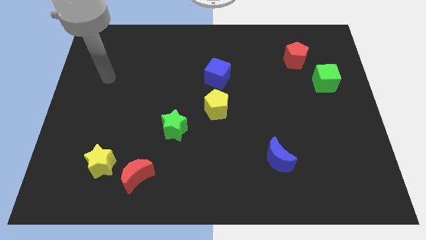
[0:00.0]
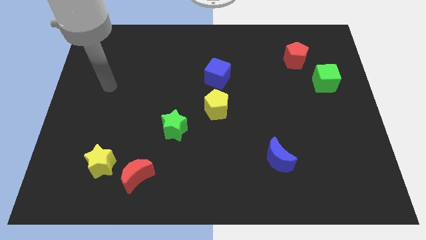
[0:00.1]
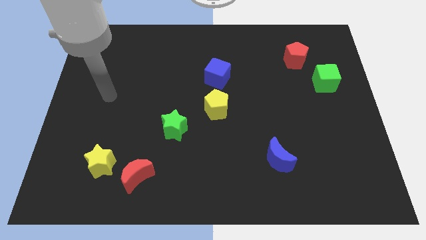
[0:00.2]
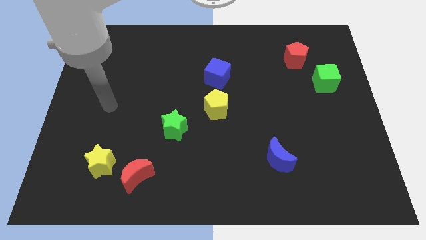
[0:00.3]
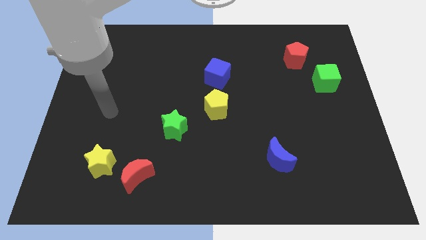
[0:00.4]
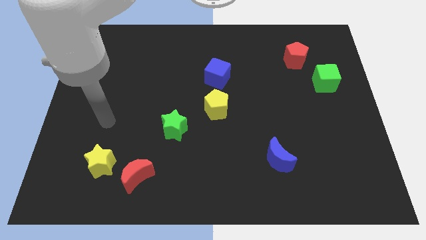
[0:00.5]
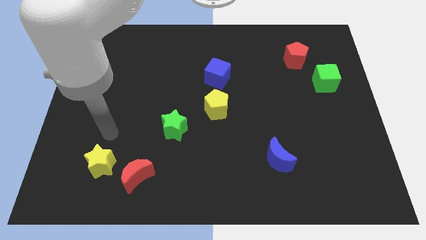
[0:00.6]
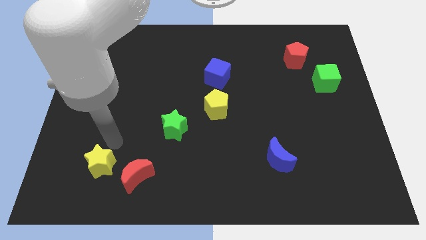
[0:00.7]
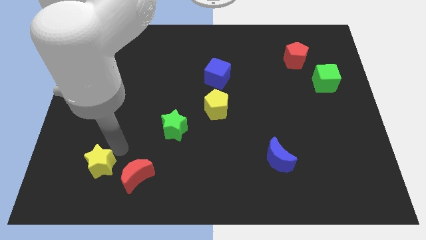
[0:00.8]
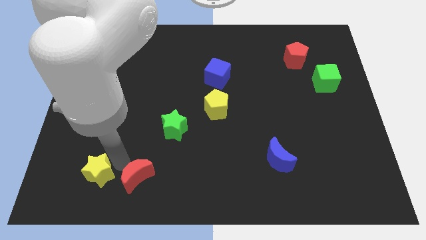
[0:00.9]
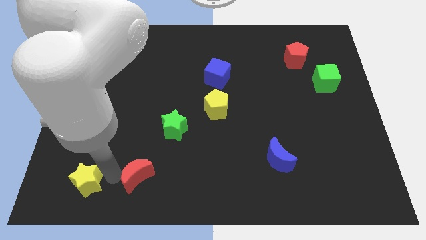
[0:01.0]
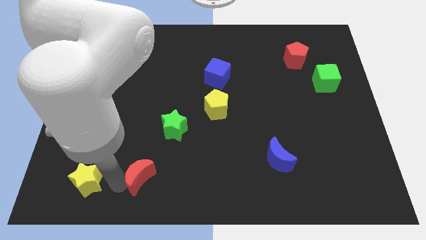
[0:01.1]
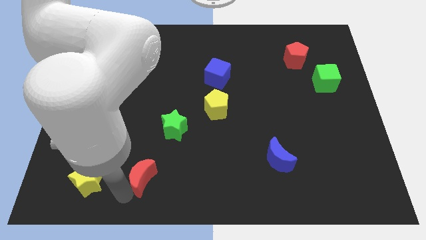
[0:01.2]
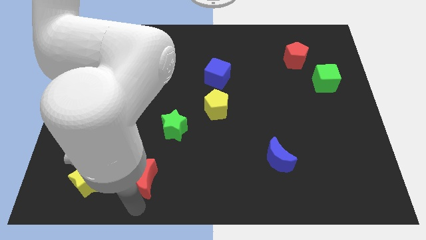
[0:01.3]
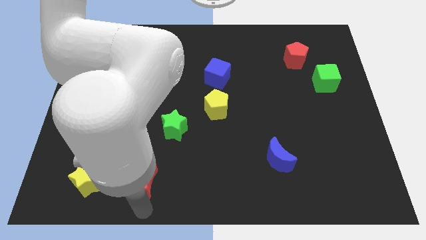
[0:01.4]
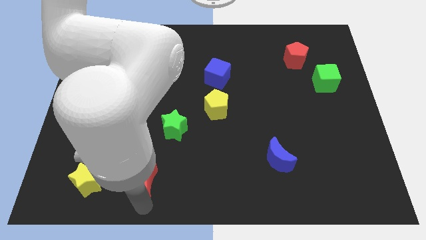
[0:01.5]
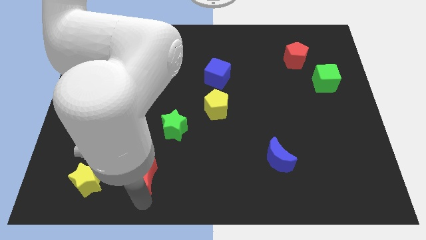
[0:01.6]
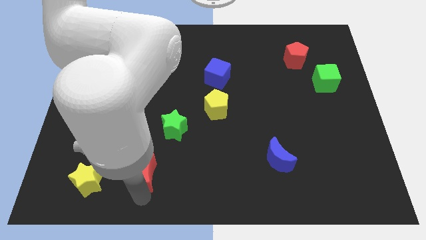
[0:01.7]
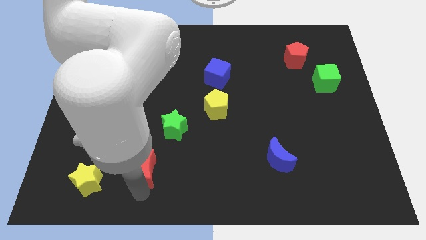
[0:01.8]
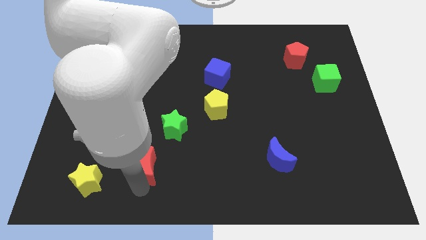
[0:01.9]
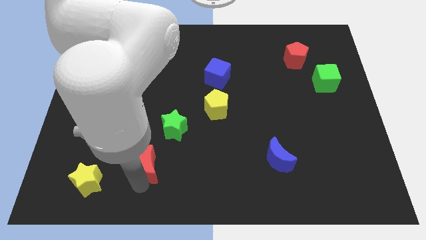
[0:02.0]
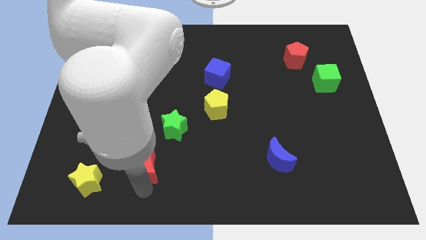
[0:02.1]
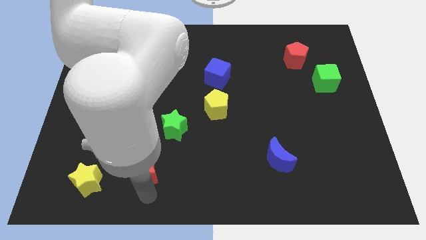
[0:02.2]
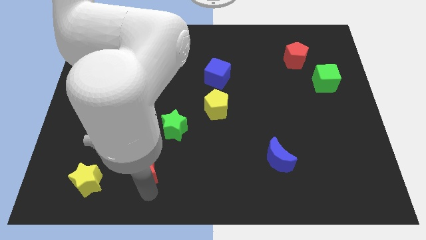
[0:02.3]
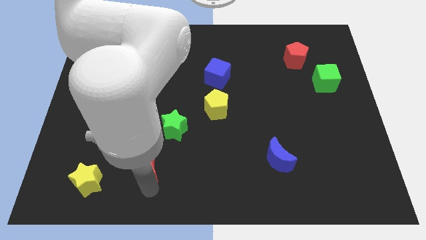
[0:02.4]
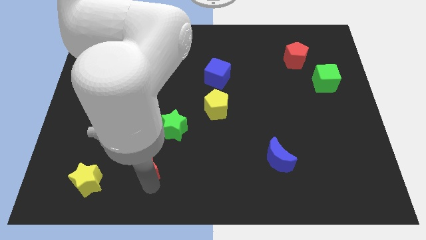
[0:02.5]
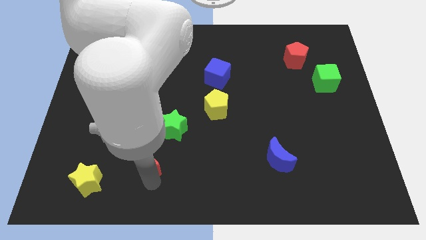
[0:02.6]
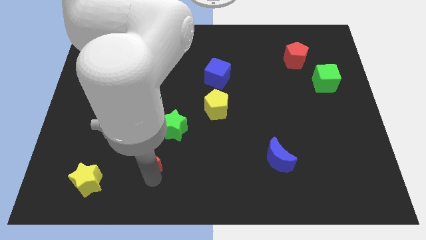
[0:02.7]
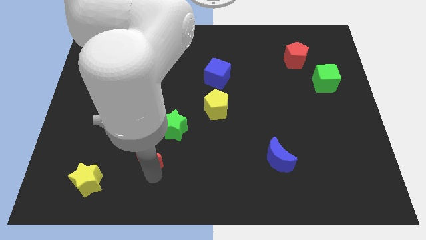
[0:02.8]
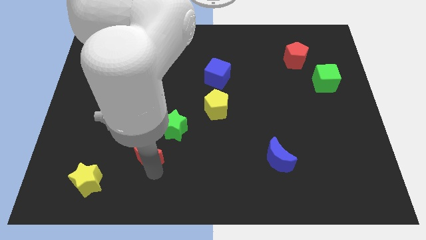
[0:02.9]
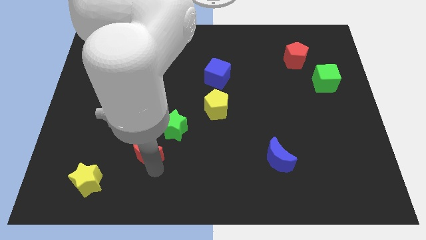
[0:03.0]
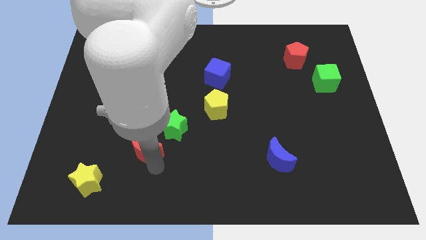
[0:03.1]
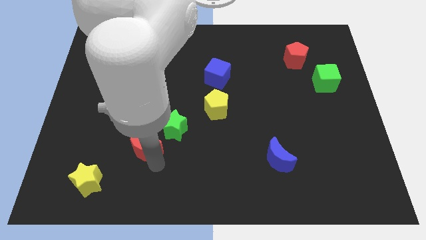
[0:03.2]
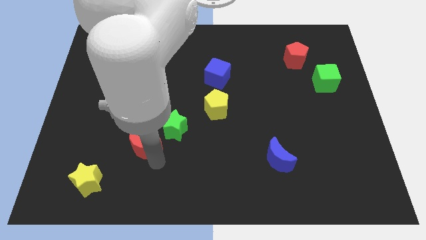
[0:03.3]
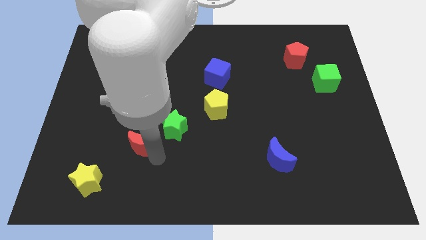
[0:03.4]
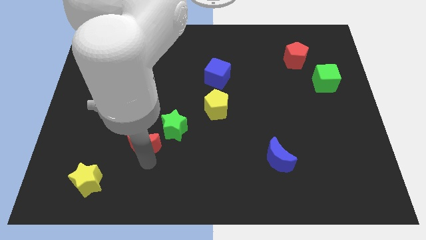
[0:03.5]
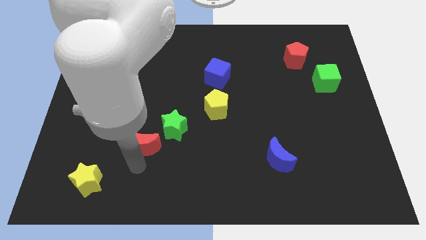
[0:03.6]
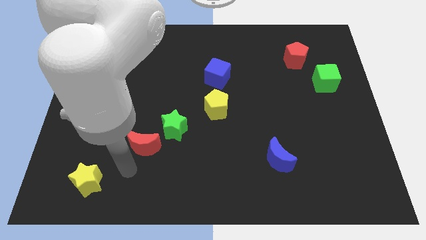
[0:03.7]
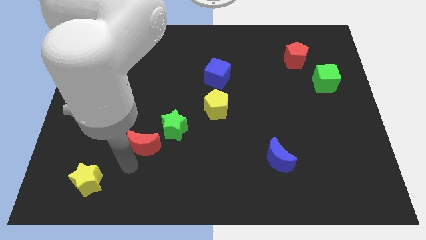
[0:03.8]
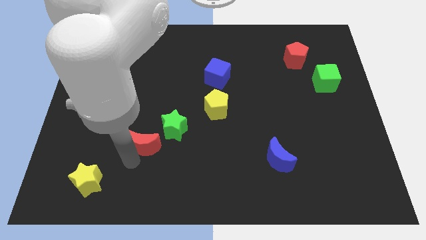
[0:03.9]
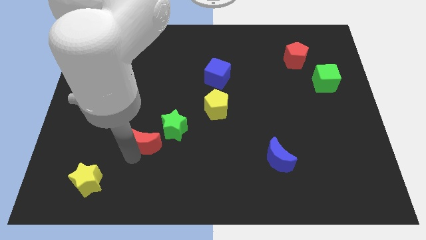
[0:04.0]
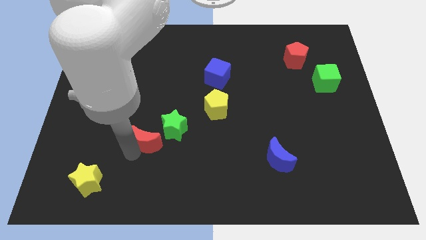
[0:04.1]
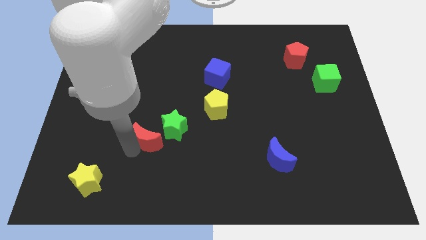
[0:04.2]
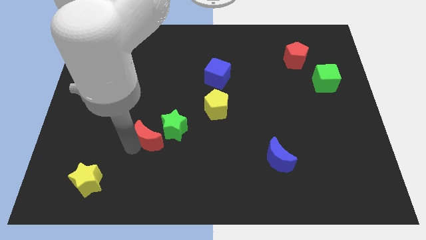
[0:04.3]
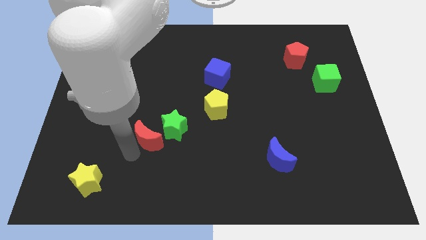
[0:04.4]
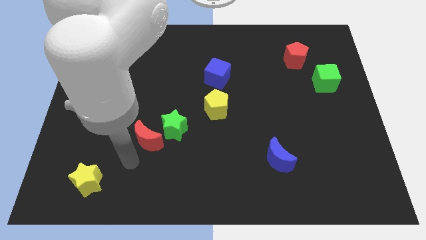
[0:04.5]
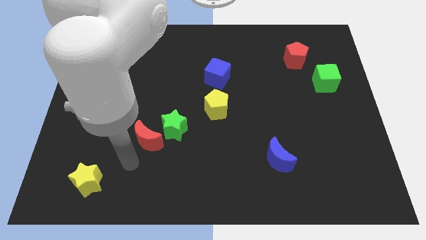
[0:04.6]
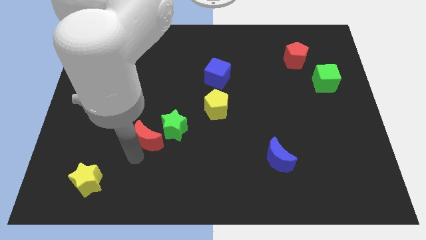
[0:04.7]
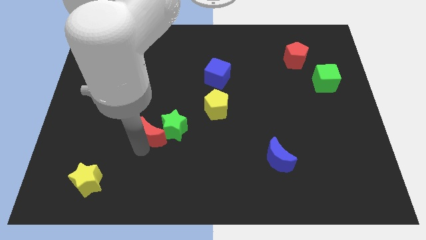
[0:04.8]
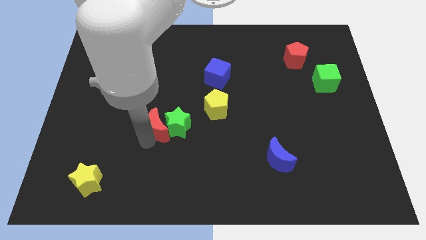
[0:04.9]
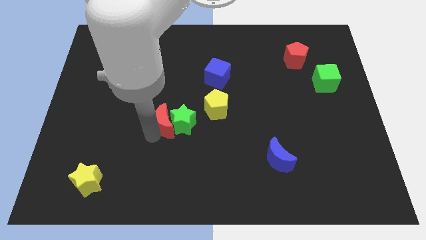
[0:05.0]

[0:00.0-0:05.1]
push the red moon to the left side of the yellow pentagon

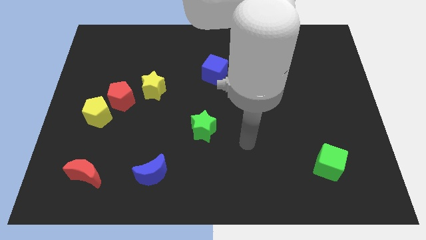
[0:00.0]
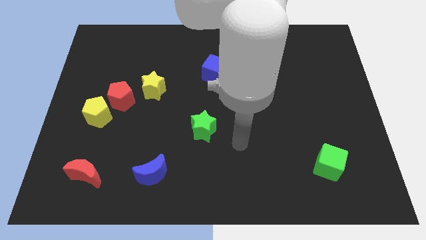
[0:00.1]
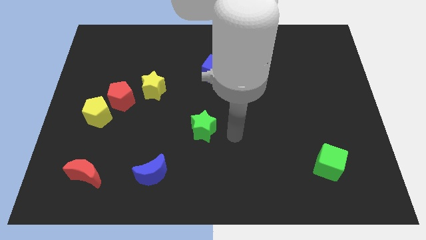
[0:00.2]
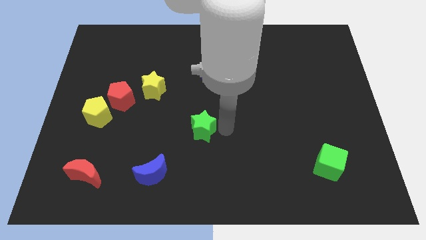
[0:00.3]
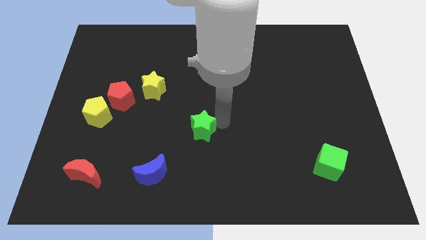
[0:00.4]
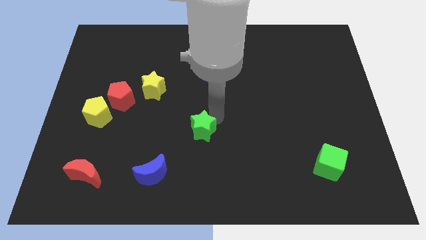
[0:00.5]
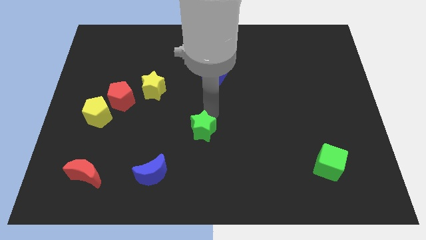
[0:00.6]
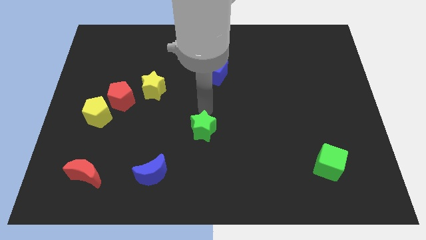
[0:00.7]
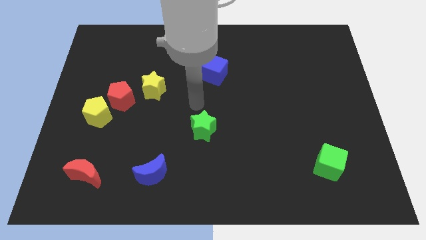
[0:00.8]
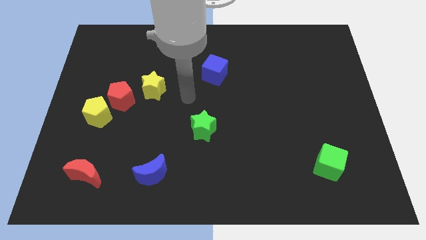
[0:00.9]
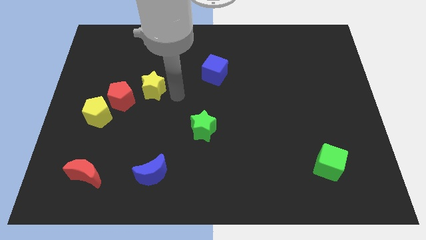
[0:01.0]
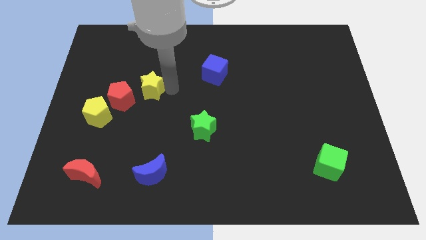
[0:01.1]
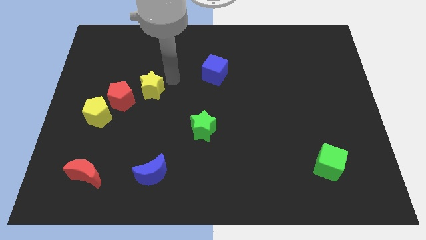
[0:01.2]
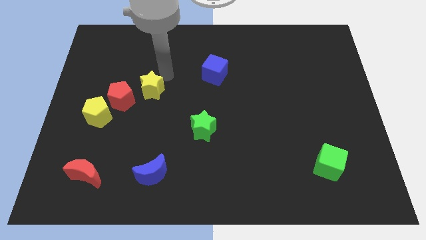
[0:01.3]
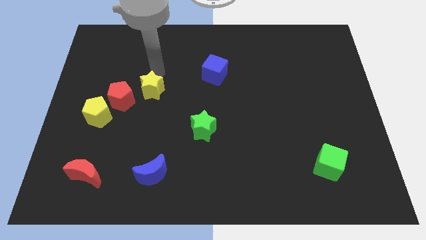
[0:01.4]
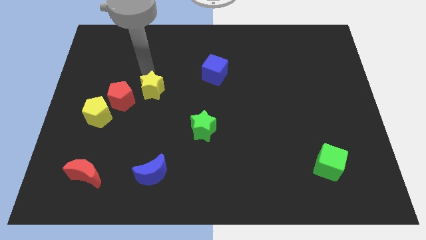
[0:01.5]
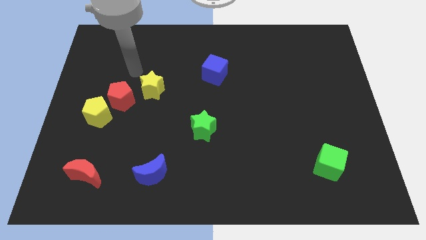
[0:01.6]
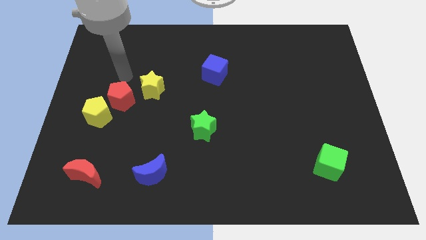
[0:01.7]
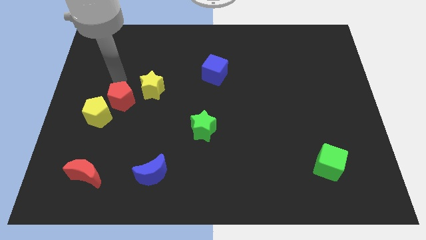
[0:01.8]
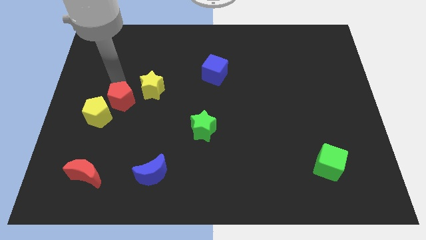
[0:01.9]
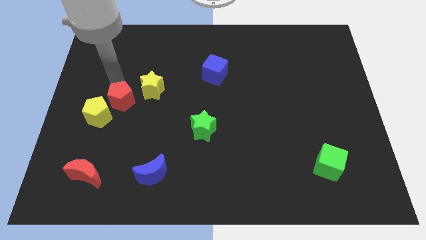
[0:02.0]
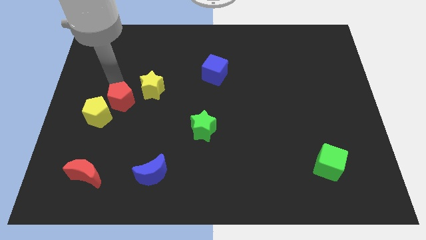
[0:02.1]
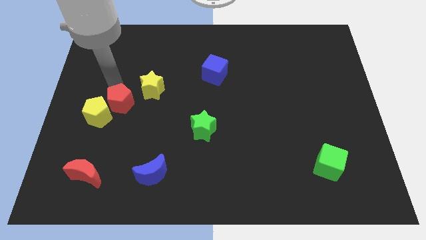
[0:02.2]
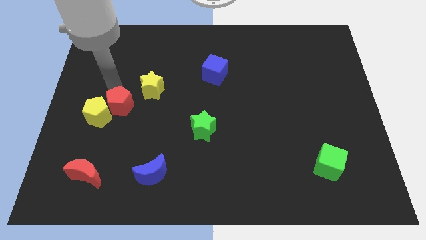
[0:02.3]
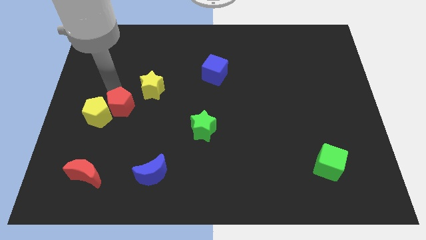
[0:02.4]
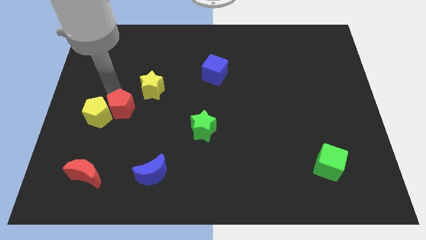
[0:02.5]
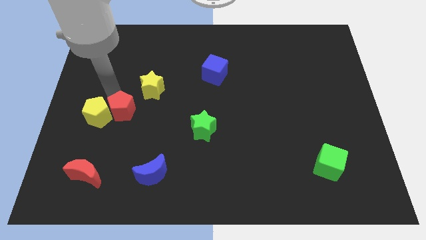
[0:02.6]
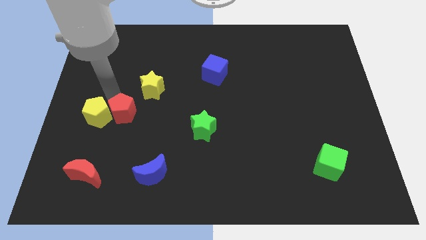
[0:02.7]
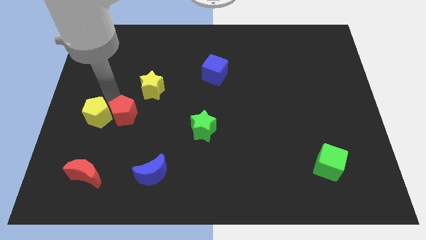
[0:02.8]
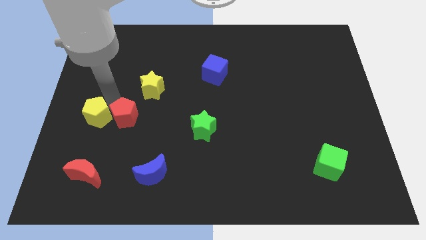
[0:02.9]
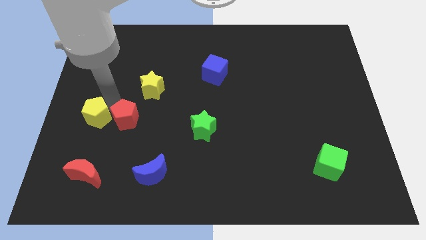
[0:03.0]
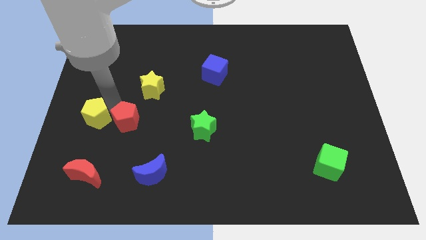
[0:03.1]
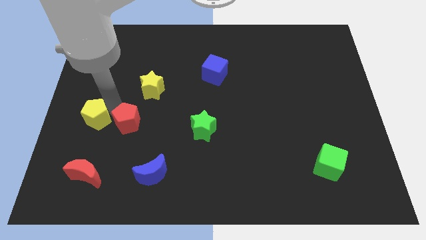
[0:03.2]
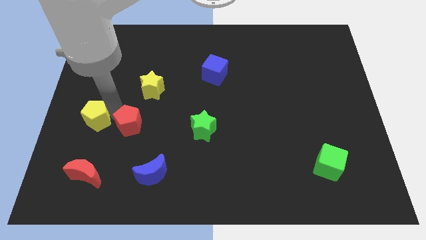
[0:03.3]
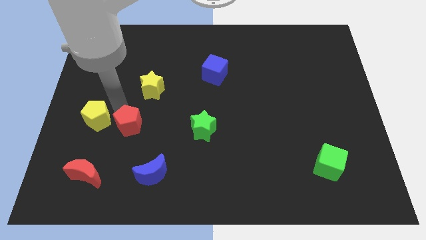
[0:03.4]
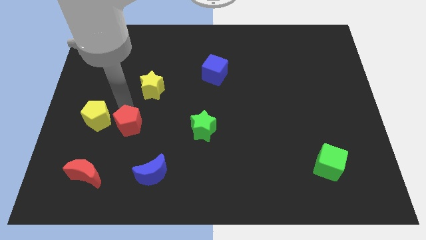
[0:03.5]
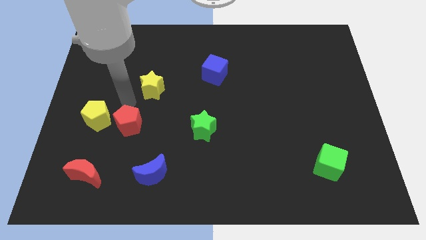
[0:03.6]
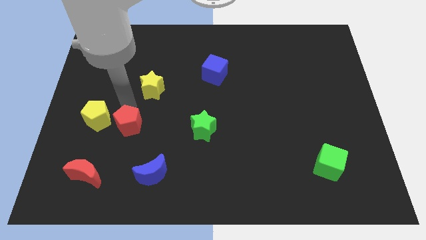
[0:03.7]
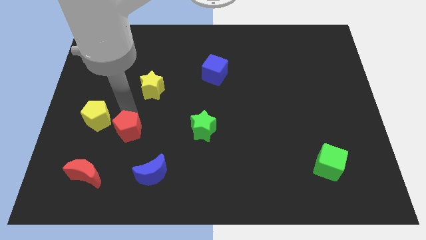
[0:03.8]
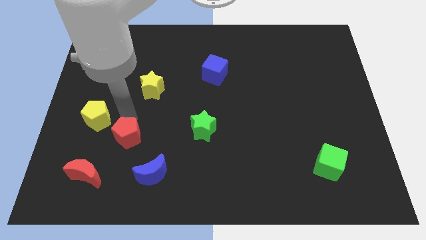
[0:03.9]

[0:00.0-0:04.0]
put the red pentagon diagonally up and to the left of the blue moon
